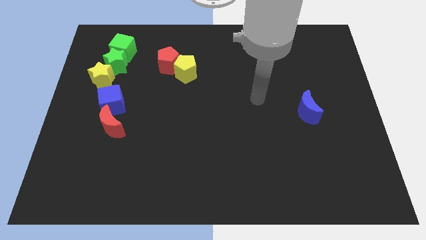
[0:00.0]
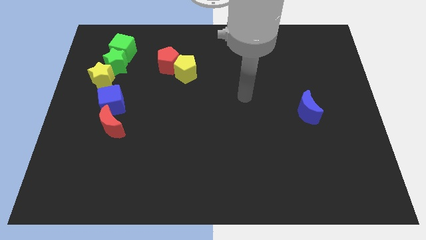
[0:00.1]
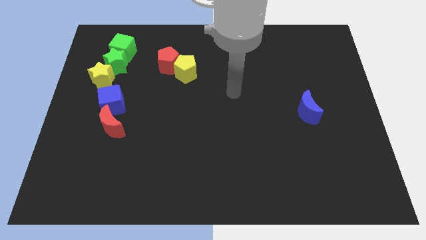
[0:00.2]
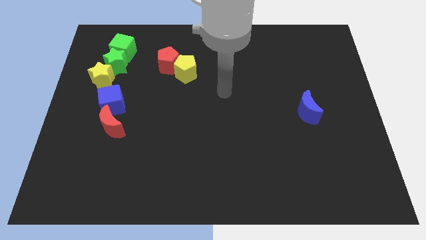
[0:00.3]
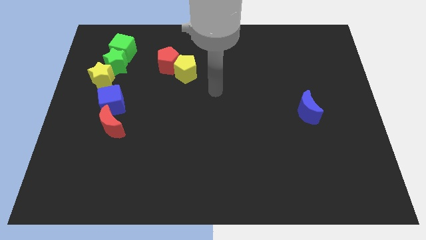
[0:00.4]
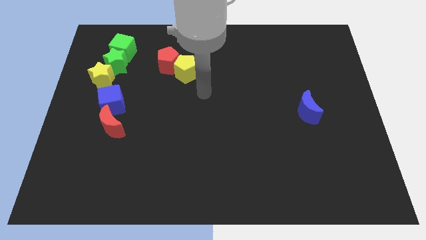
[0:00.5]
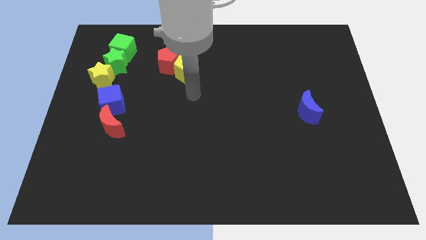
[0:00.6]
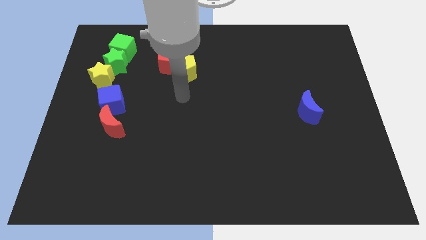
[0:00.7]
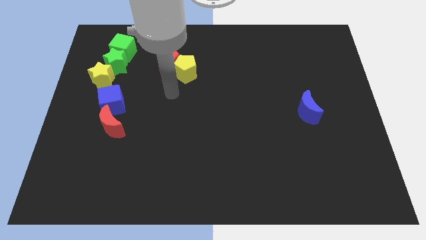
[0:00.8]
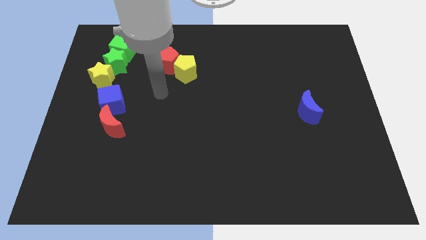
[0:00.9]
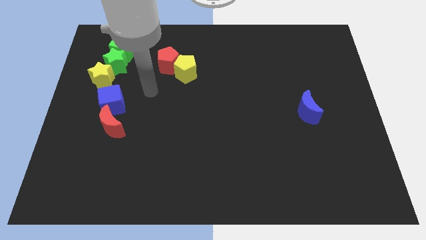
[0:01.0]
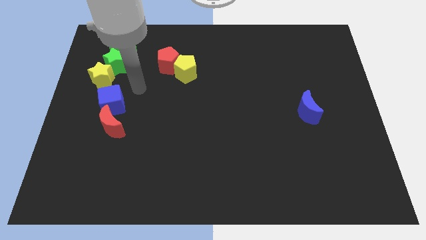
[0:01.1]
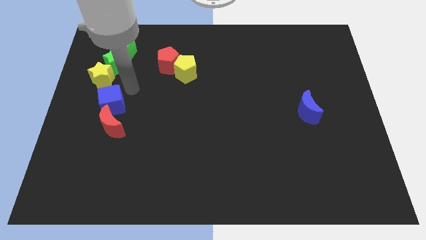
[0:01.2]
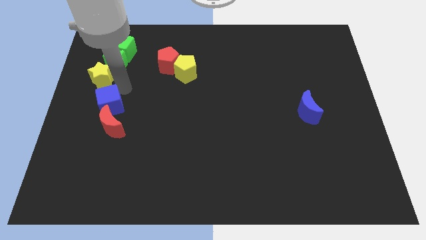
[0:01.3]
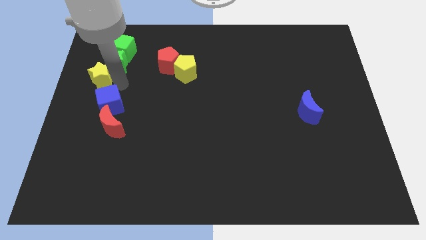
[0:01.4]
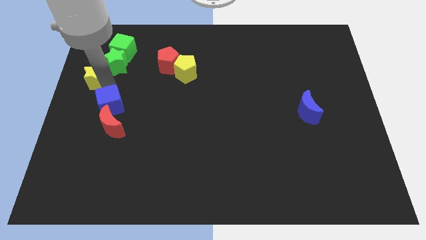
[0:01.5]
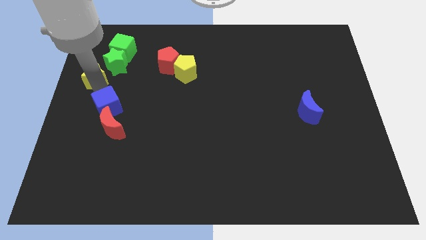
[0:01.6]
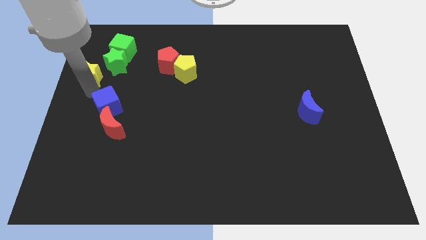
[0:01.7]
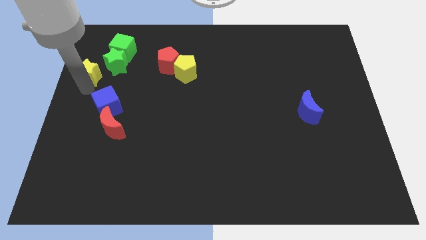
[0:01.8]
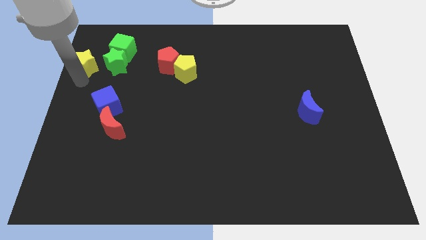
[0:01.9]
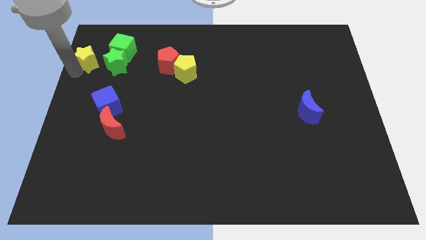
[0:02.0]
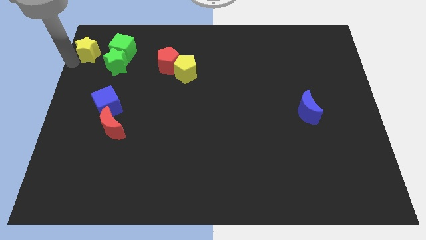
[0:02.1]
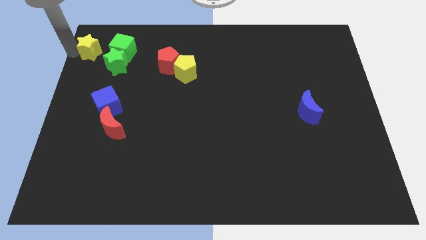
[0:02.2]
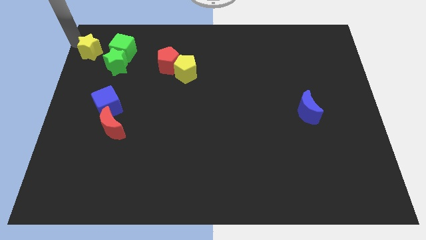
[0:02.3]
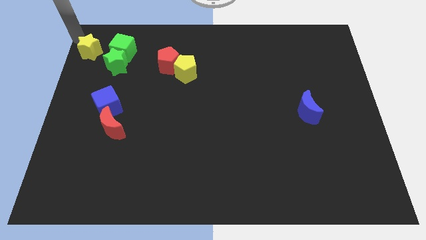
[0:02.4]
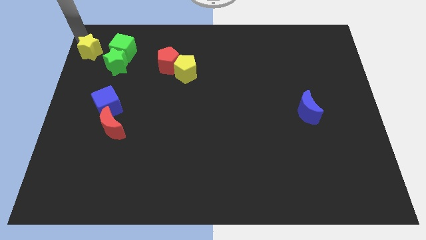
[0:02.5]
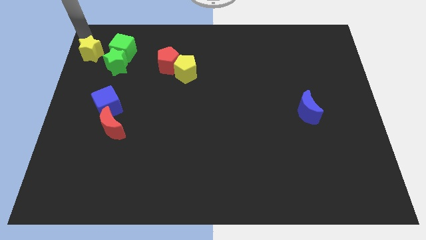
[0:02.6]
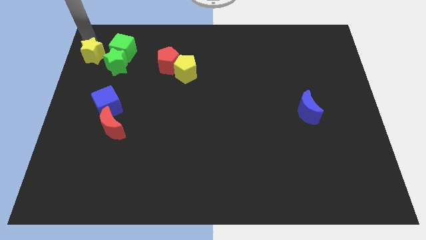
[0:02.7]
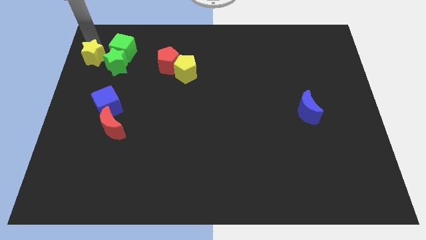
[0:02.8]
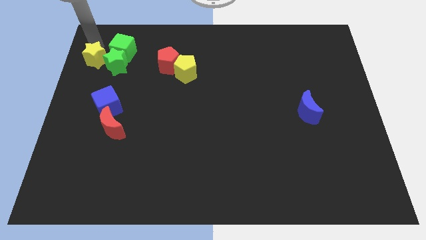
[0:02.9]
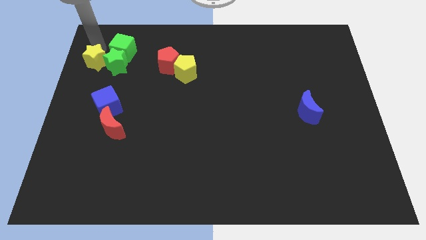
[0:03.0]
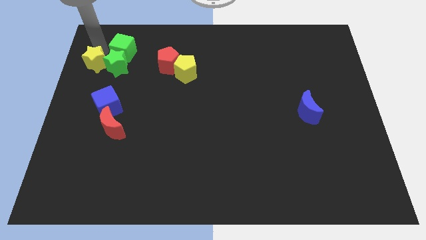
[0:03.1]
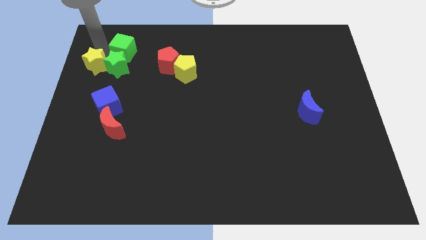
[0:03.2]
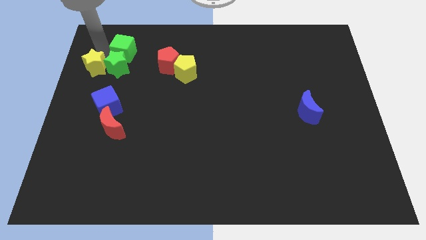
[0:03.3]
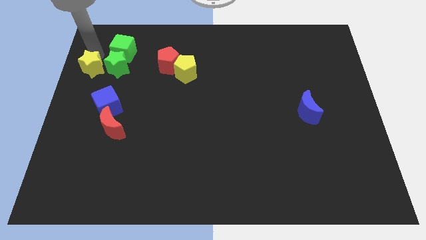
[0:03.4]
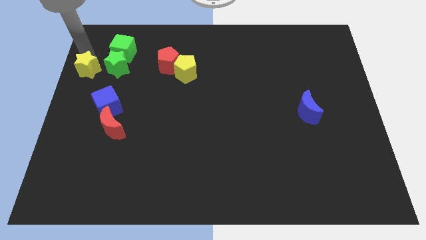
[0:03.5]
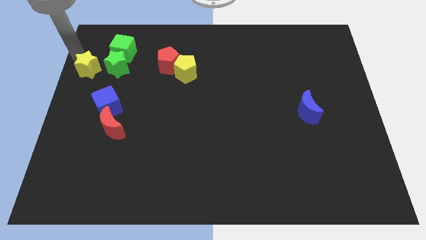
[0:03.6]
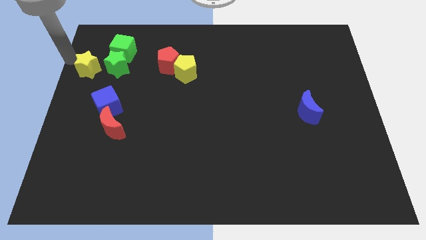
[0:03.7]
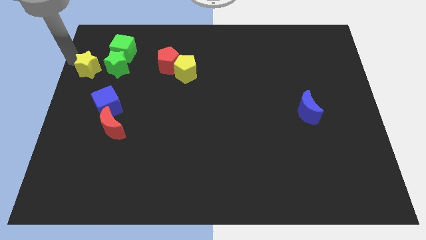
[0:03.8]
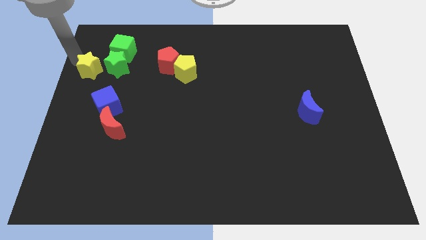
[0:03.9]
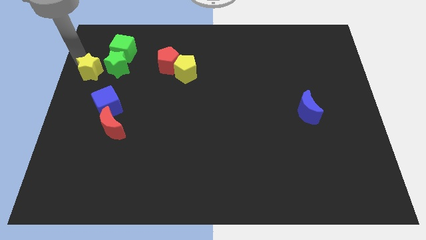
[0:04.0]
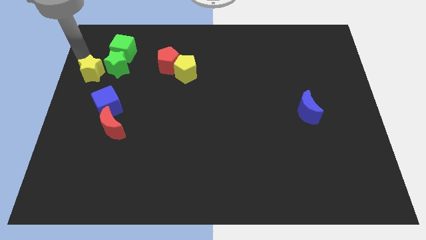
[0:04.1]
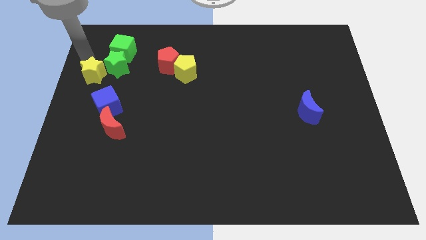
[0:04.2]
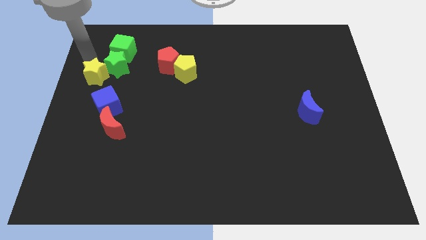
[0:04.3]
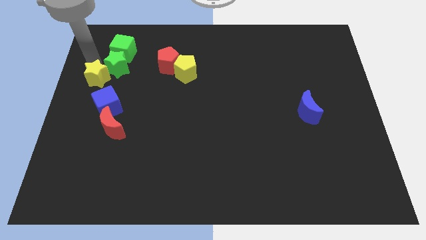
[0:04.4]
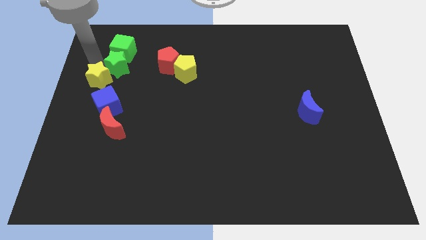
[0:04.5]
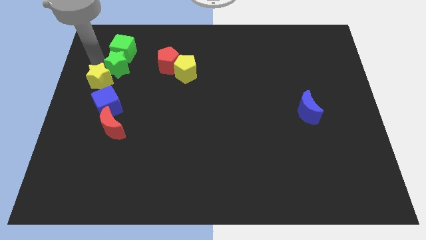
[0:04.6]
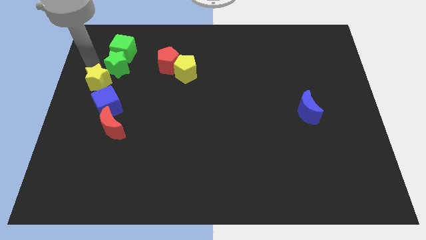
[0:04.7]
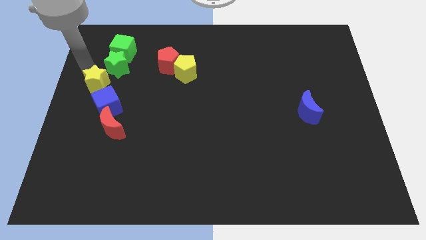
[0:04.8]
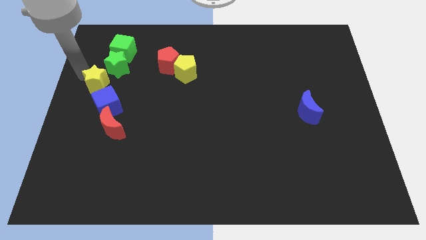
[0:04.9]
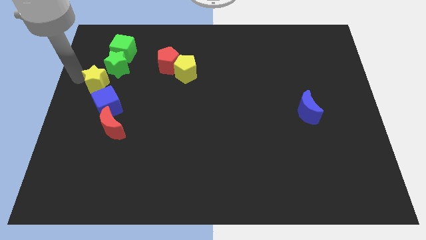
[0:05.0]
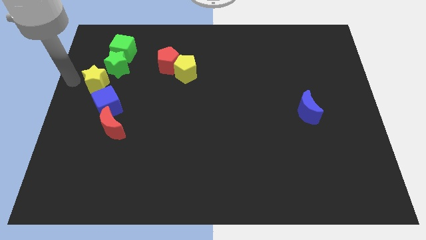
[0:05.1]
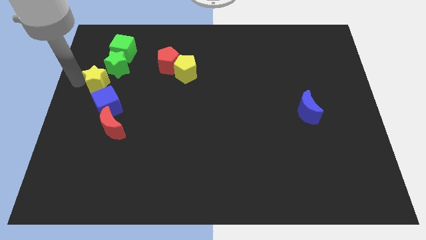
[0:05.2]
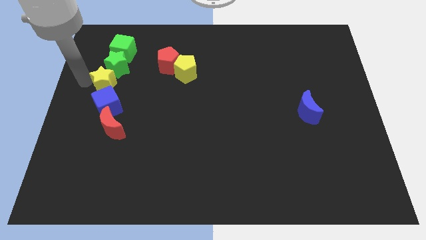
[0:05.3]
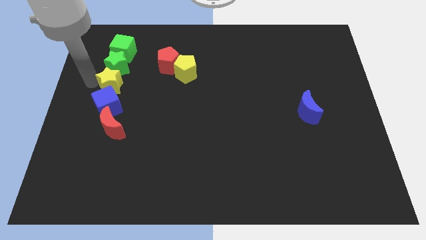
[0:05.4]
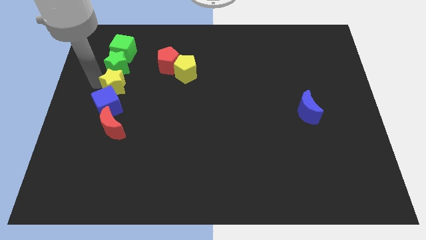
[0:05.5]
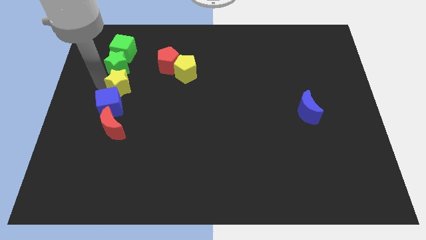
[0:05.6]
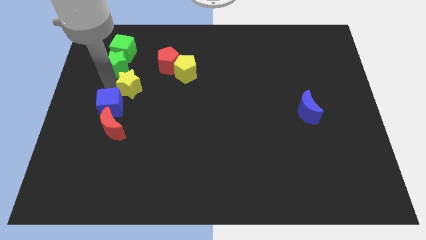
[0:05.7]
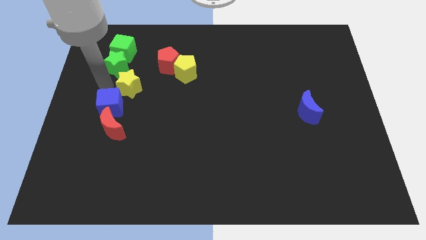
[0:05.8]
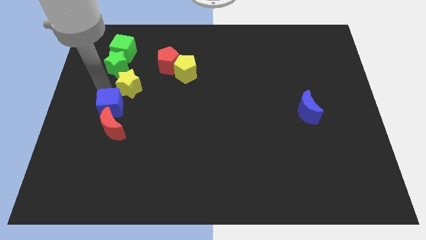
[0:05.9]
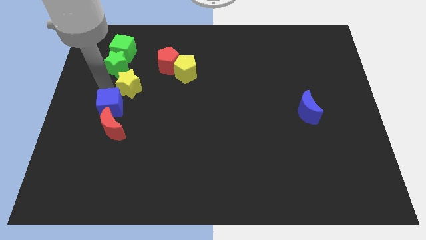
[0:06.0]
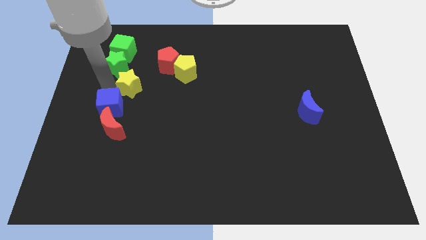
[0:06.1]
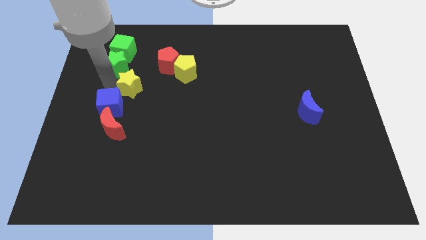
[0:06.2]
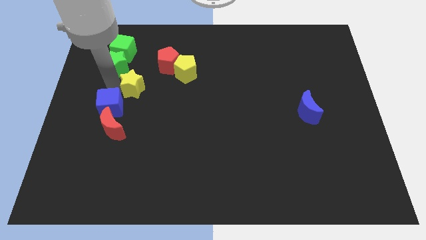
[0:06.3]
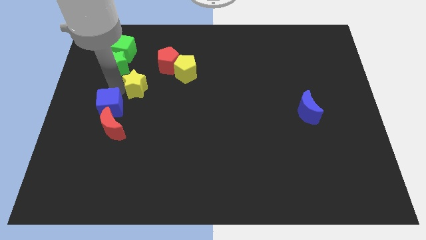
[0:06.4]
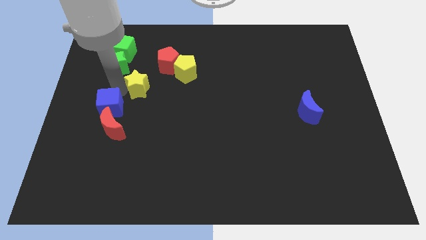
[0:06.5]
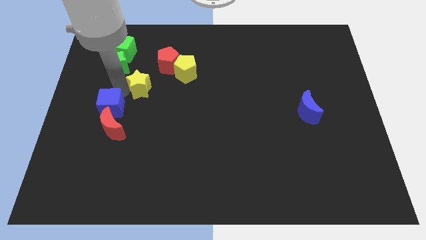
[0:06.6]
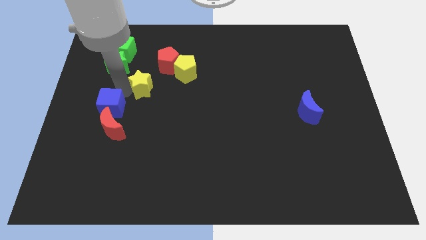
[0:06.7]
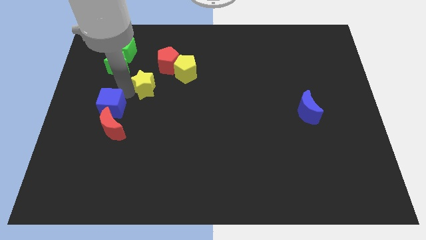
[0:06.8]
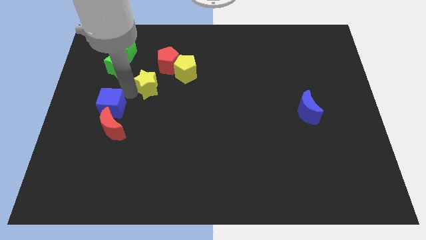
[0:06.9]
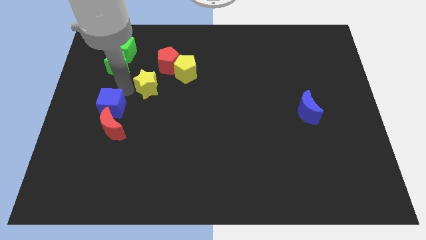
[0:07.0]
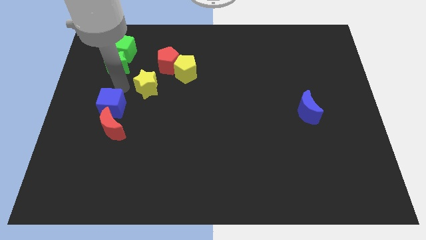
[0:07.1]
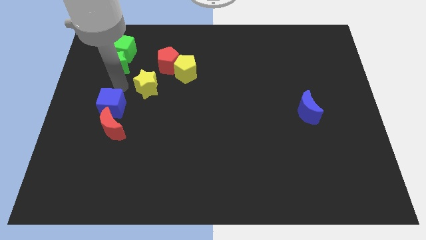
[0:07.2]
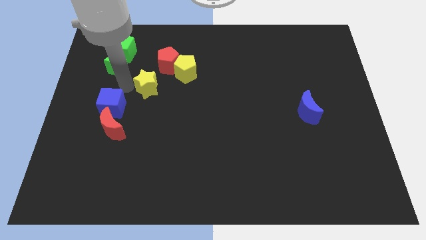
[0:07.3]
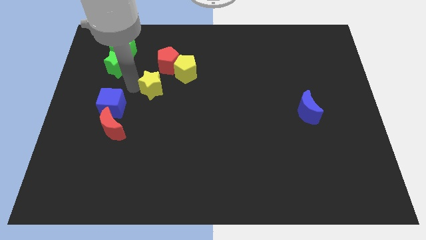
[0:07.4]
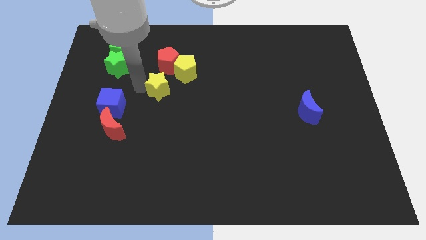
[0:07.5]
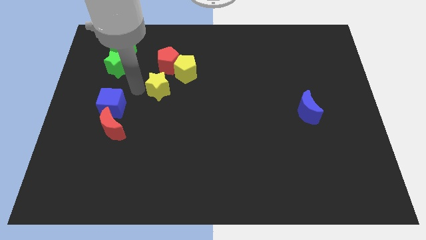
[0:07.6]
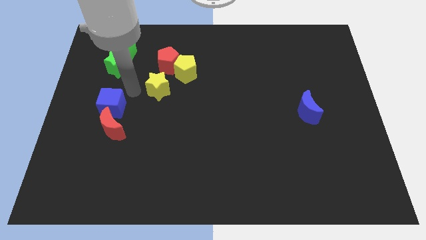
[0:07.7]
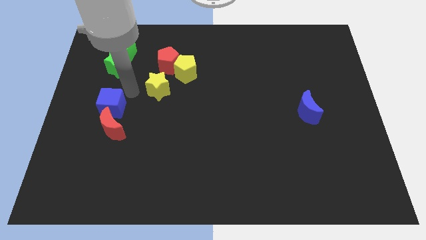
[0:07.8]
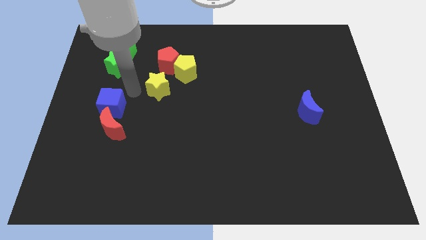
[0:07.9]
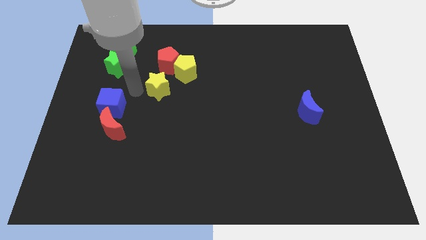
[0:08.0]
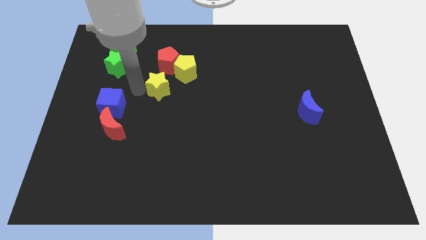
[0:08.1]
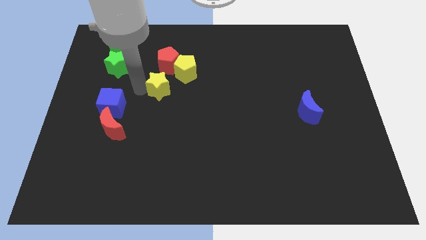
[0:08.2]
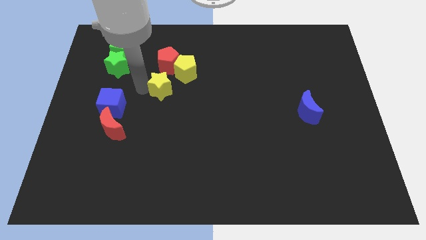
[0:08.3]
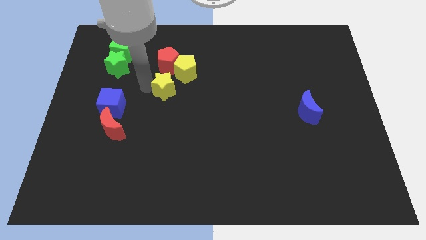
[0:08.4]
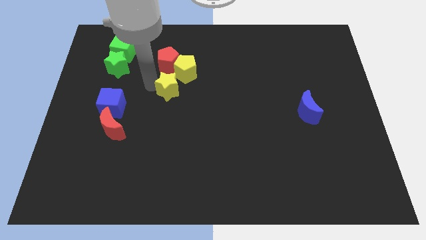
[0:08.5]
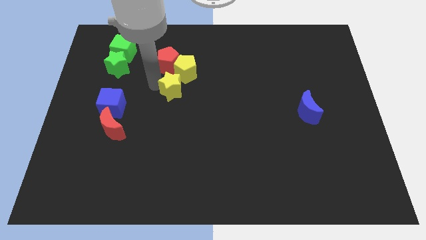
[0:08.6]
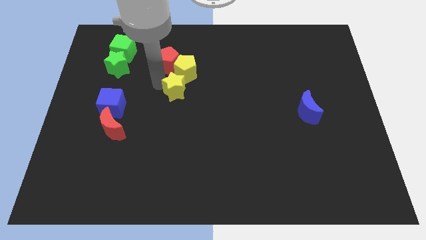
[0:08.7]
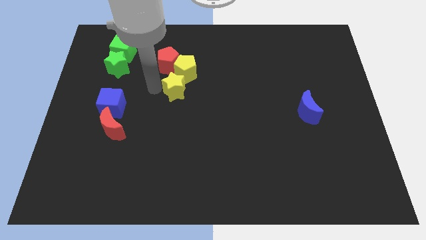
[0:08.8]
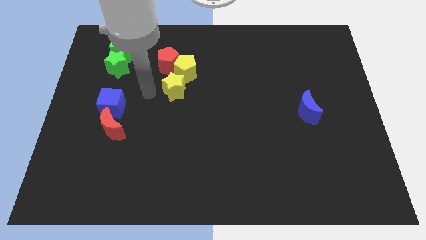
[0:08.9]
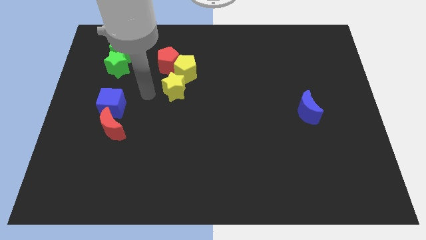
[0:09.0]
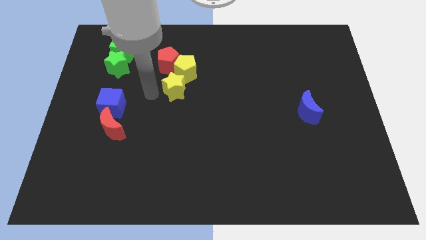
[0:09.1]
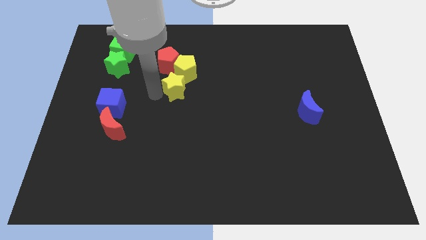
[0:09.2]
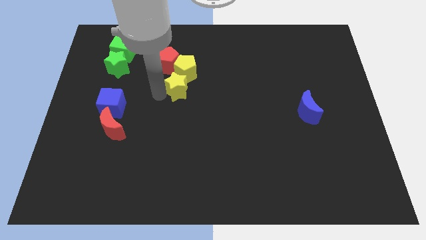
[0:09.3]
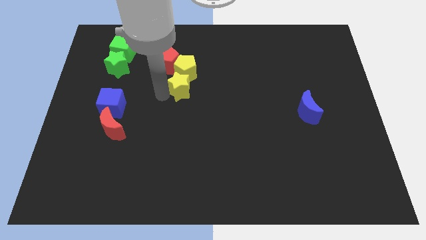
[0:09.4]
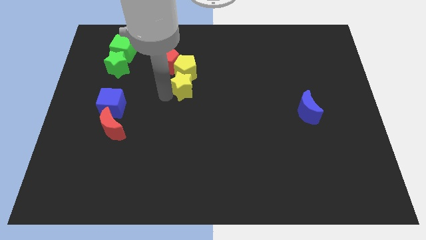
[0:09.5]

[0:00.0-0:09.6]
move the yellow star right
